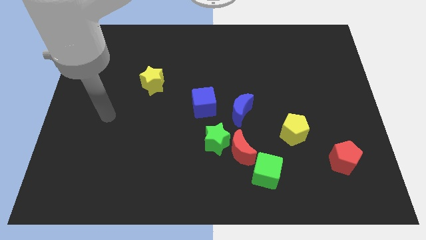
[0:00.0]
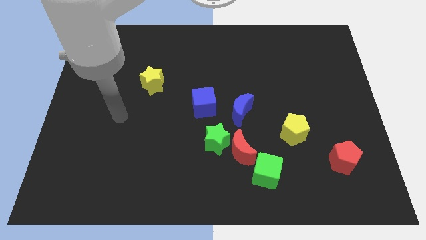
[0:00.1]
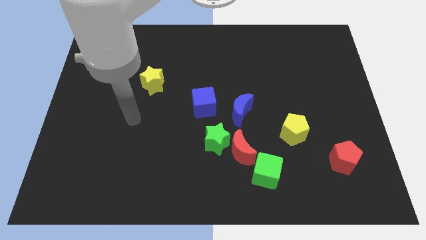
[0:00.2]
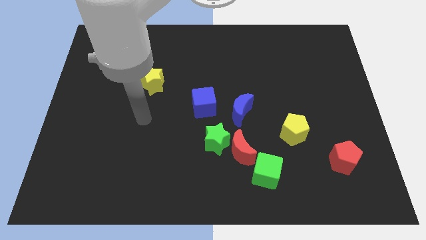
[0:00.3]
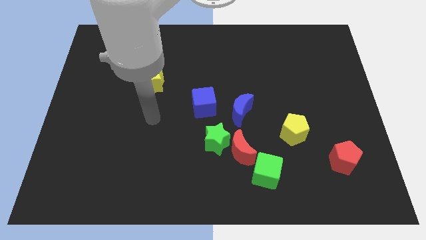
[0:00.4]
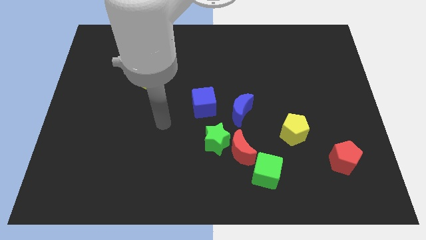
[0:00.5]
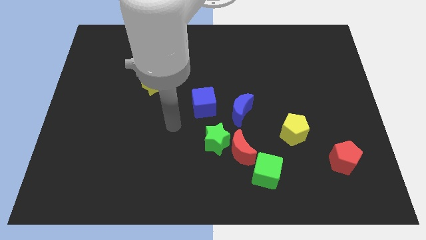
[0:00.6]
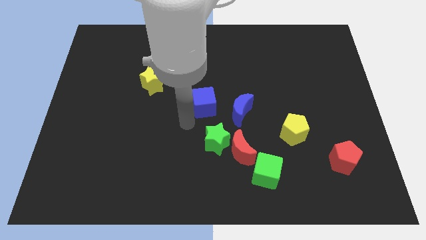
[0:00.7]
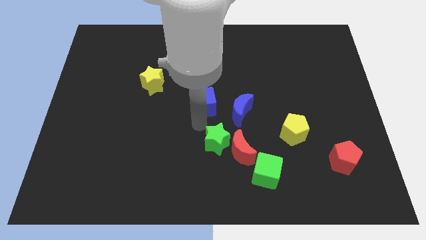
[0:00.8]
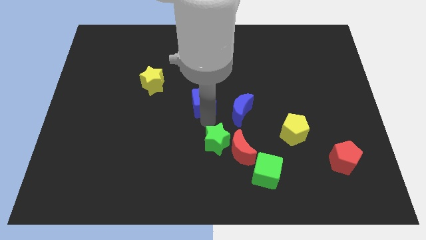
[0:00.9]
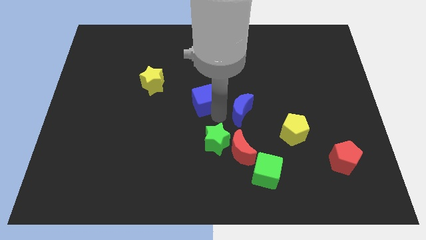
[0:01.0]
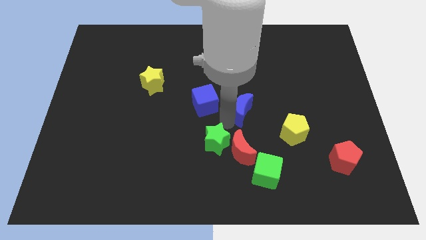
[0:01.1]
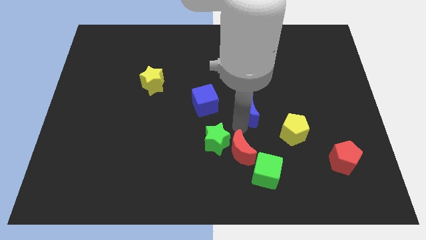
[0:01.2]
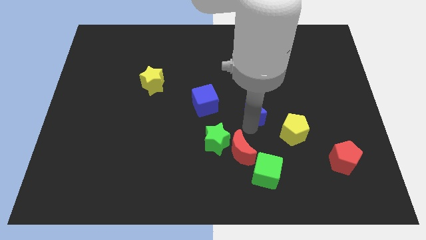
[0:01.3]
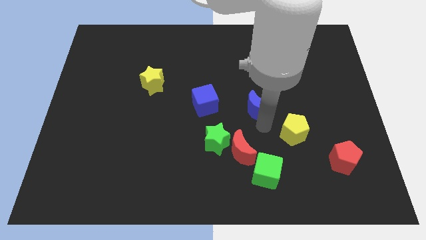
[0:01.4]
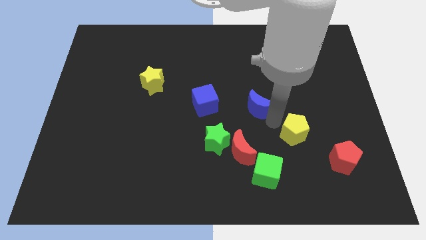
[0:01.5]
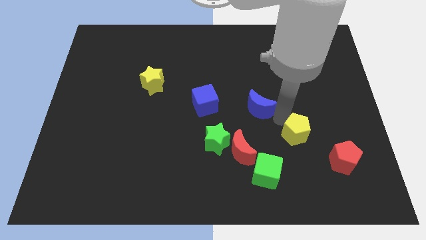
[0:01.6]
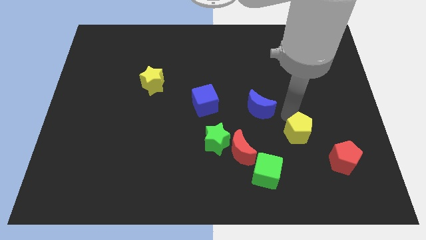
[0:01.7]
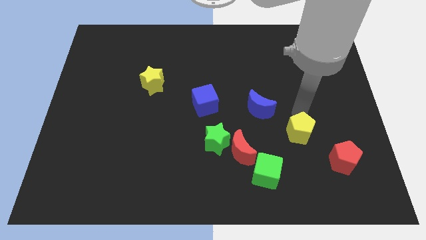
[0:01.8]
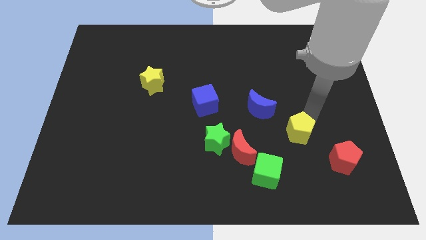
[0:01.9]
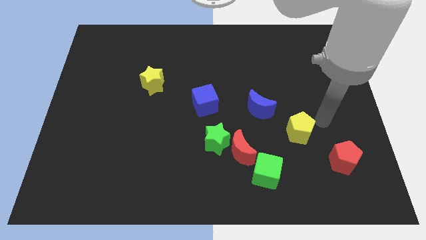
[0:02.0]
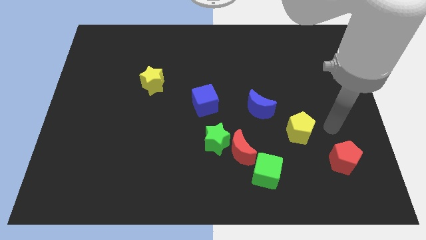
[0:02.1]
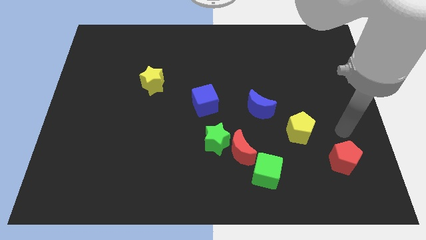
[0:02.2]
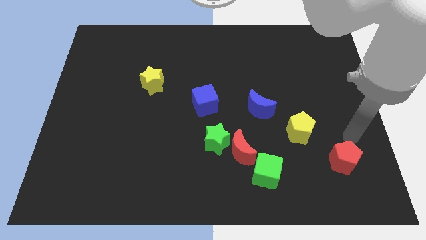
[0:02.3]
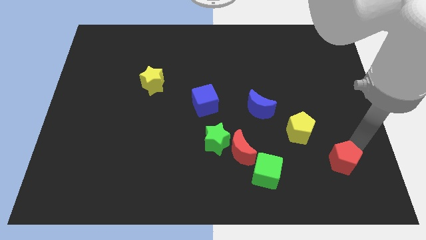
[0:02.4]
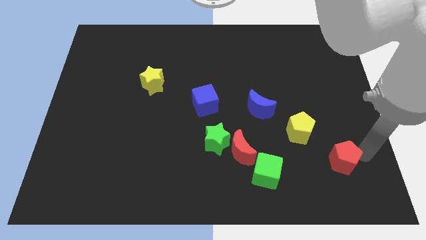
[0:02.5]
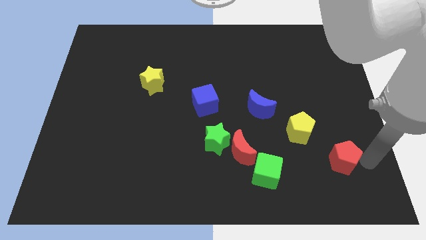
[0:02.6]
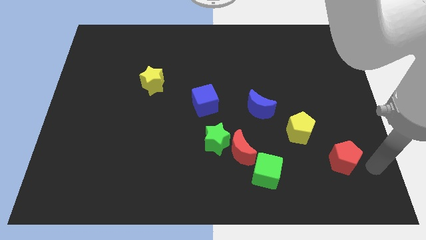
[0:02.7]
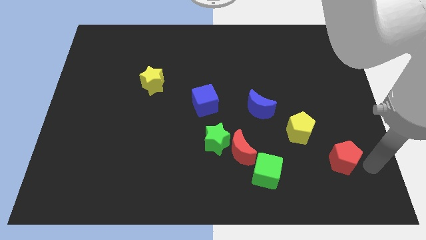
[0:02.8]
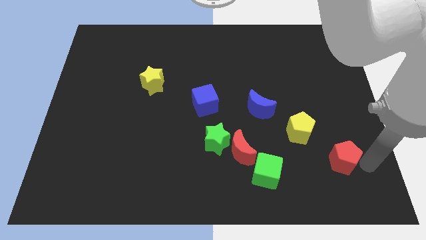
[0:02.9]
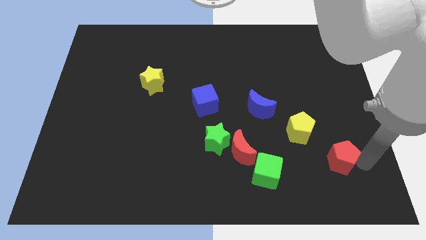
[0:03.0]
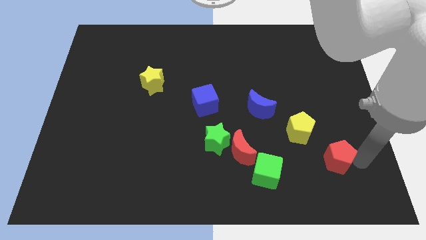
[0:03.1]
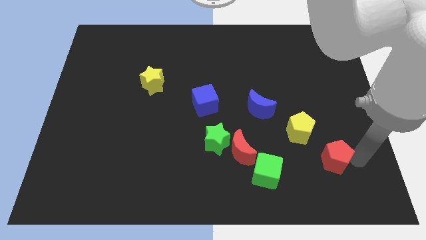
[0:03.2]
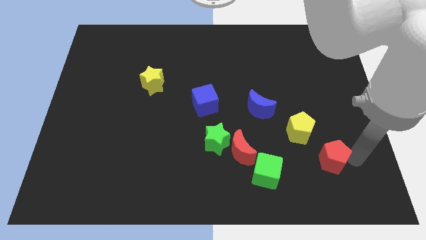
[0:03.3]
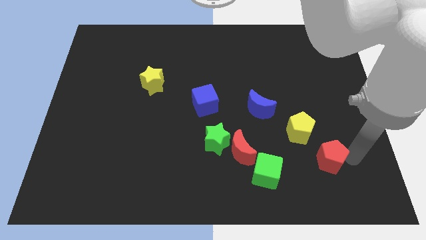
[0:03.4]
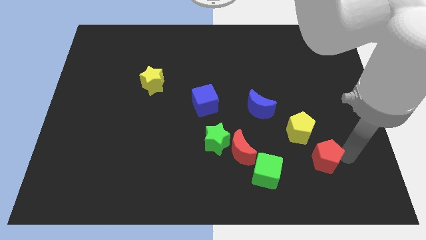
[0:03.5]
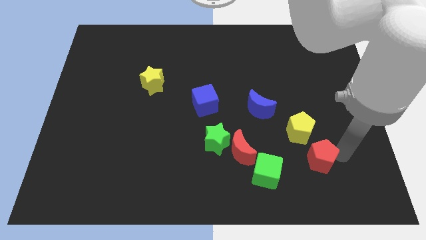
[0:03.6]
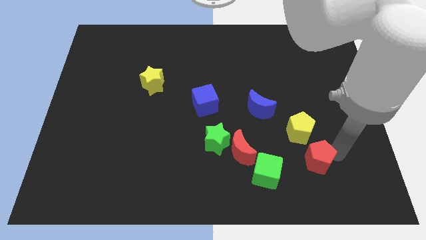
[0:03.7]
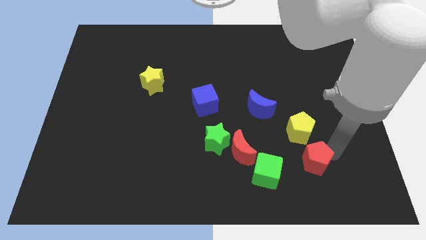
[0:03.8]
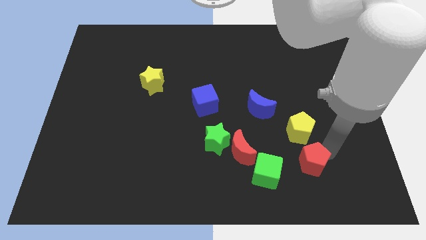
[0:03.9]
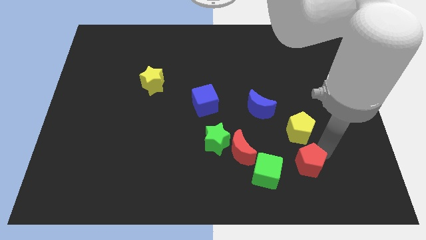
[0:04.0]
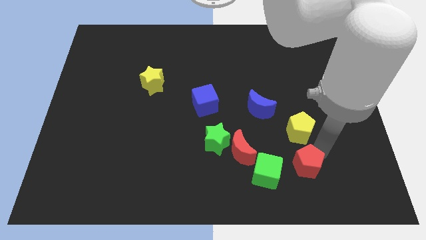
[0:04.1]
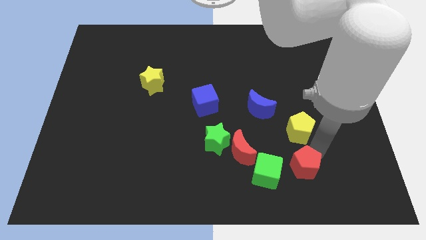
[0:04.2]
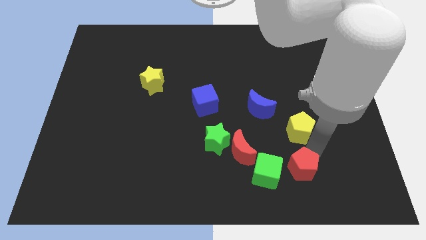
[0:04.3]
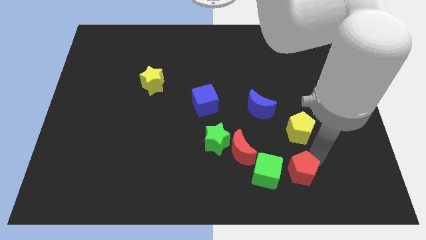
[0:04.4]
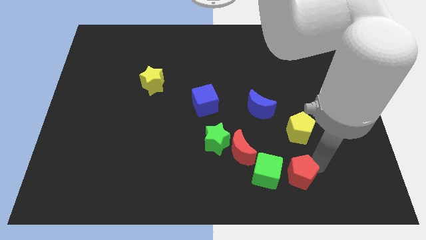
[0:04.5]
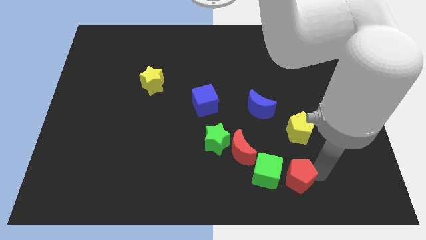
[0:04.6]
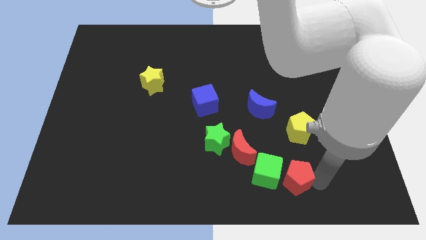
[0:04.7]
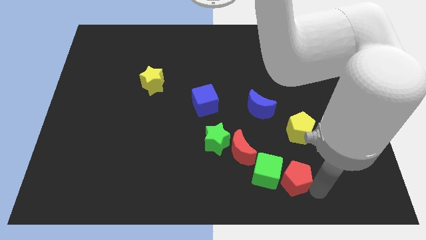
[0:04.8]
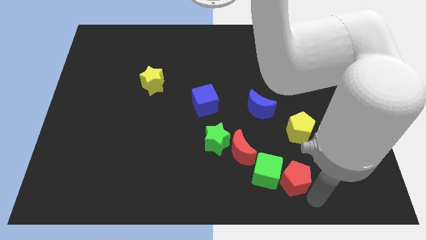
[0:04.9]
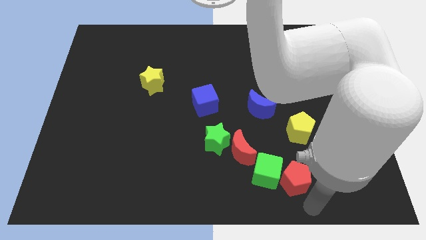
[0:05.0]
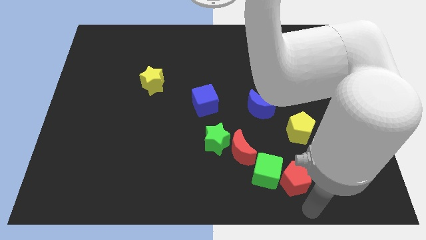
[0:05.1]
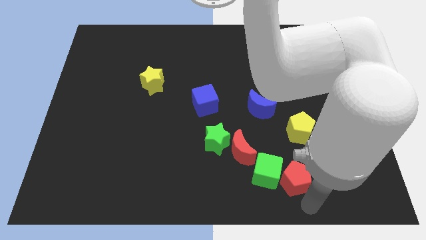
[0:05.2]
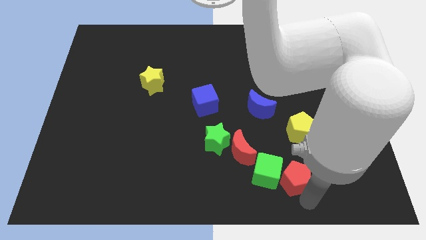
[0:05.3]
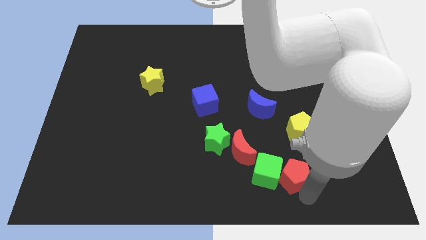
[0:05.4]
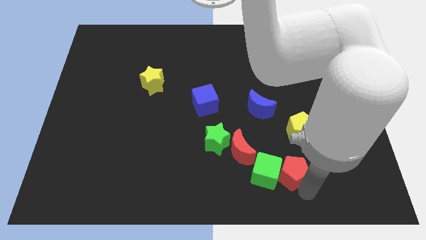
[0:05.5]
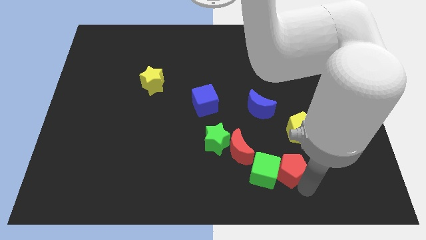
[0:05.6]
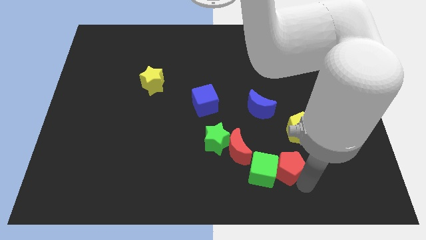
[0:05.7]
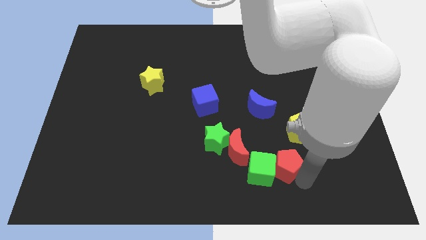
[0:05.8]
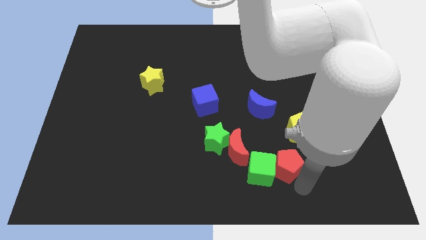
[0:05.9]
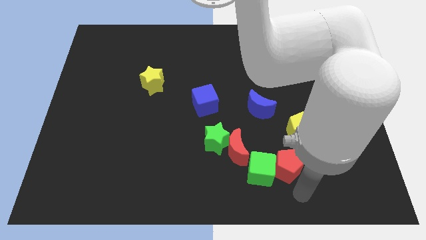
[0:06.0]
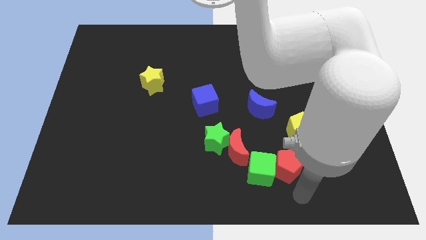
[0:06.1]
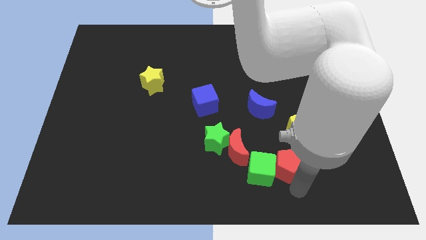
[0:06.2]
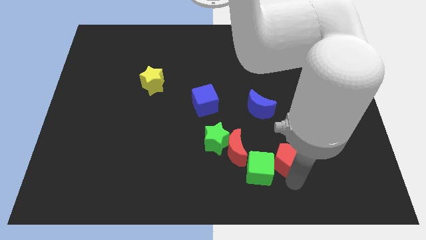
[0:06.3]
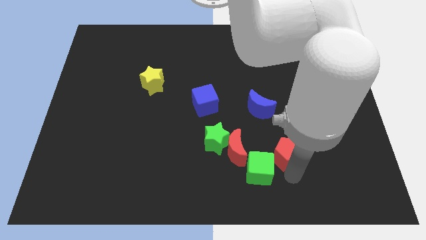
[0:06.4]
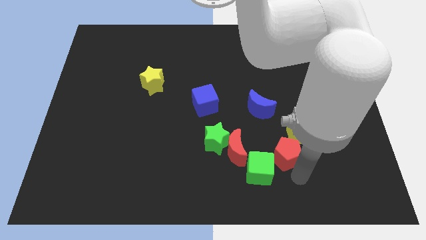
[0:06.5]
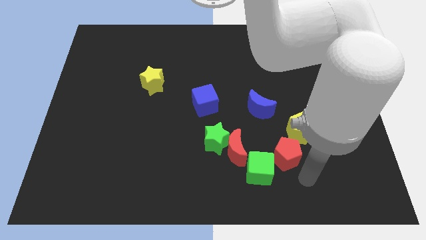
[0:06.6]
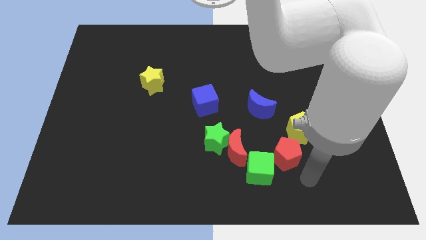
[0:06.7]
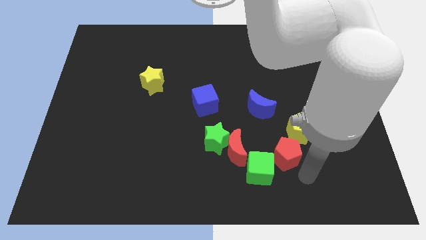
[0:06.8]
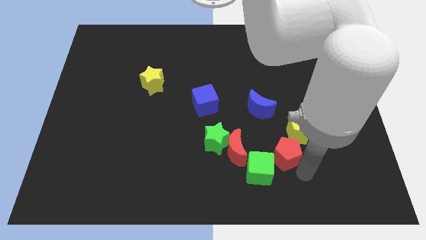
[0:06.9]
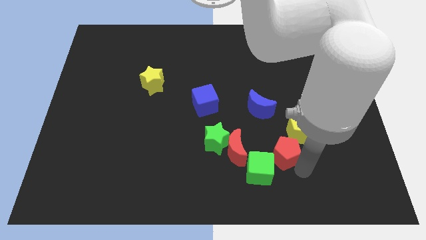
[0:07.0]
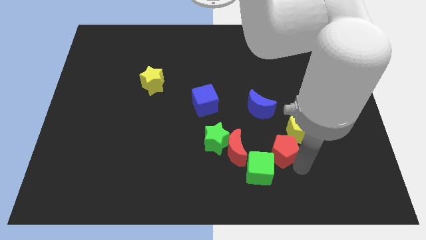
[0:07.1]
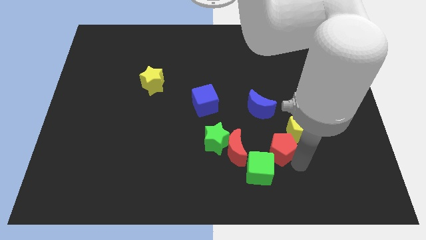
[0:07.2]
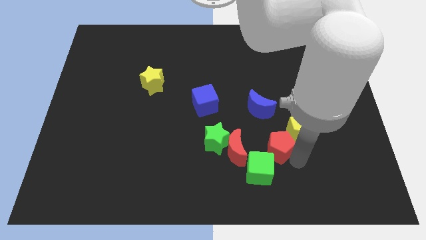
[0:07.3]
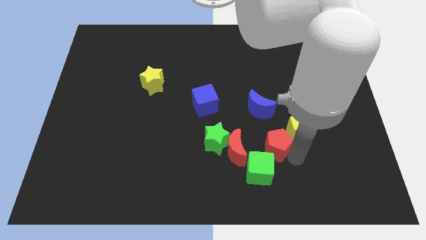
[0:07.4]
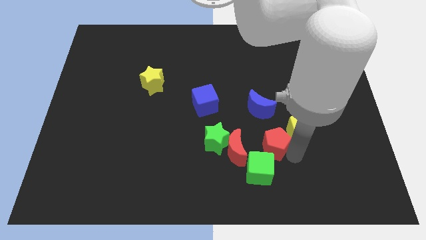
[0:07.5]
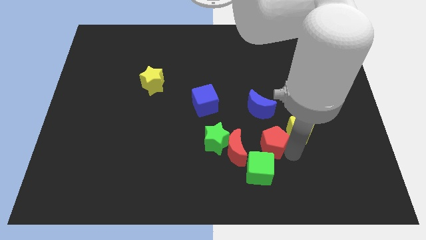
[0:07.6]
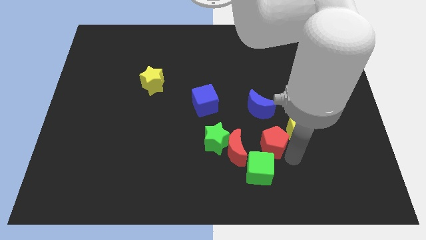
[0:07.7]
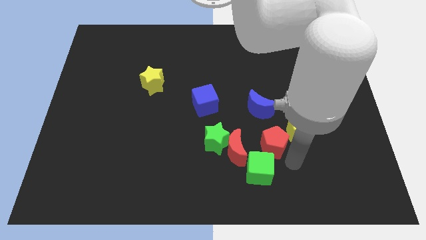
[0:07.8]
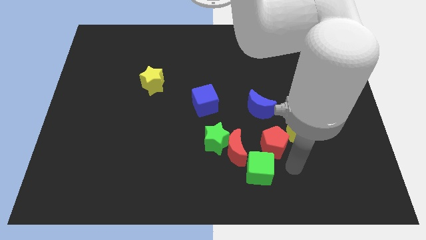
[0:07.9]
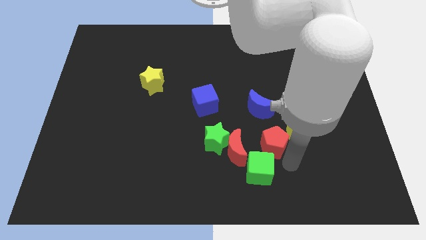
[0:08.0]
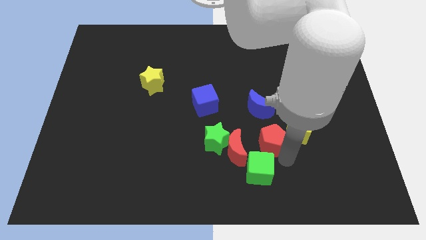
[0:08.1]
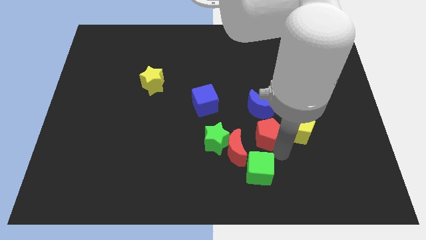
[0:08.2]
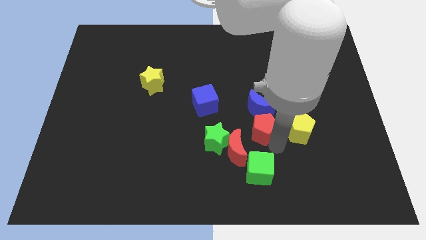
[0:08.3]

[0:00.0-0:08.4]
put the red pentagon to the blue moon
